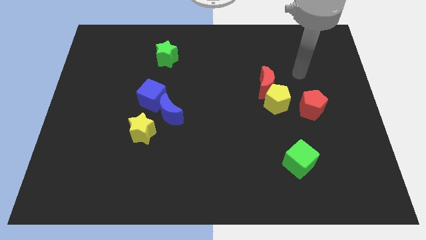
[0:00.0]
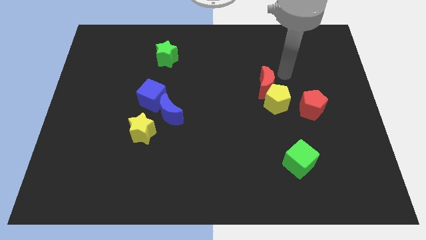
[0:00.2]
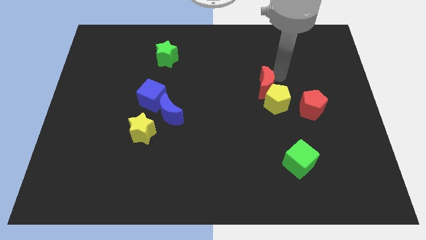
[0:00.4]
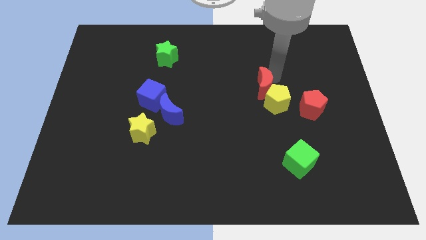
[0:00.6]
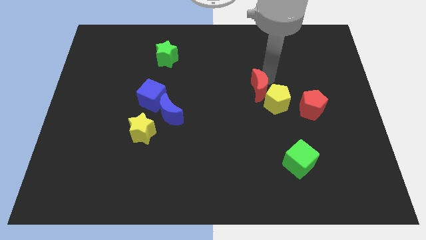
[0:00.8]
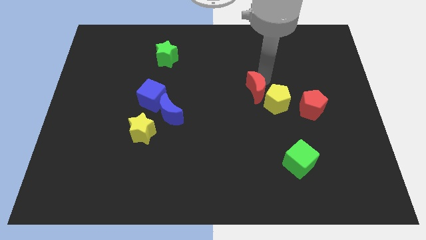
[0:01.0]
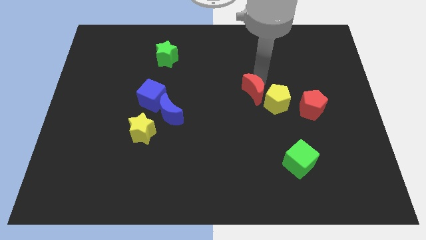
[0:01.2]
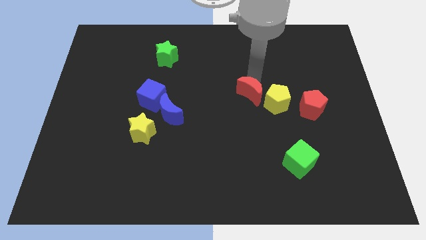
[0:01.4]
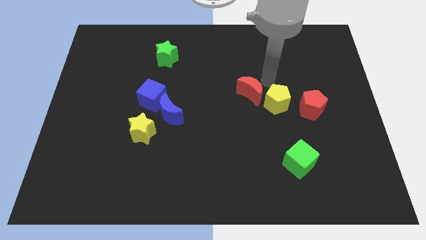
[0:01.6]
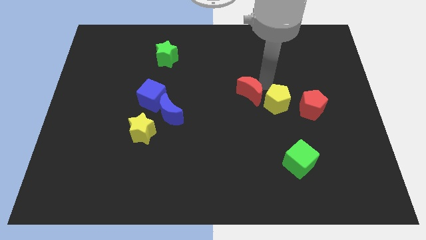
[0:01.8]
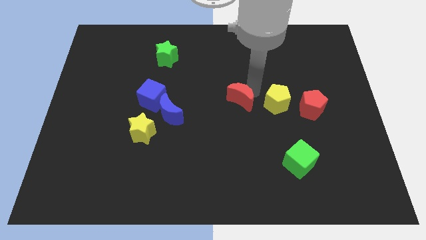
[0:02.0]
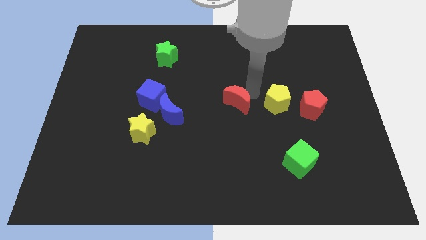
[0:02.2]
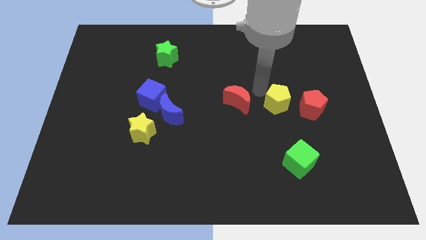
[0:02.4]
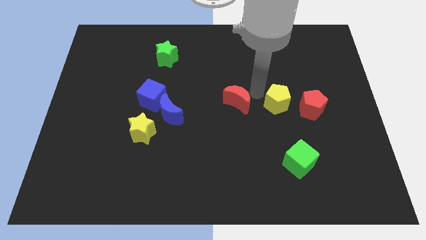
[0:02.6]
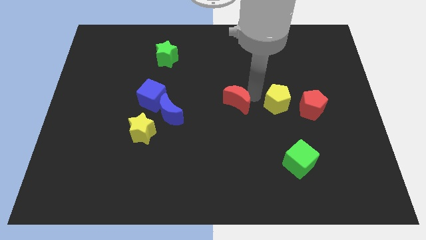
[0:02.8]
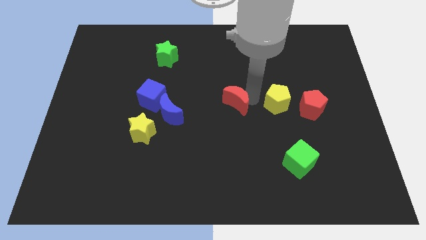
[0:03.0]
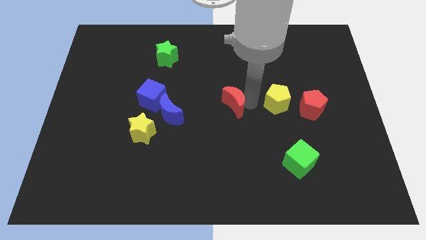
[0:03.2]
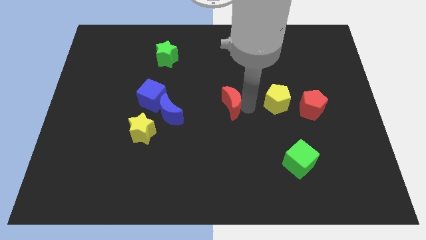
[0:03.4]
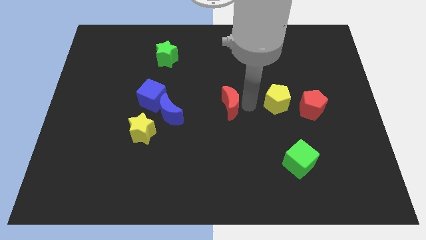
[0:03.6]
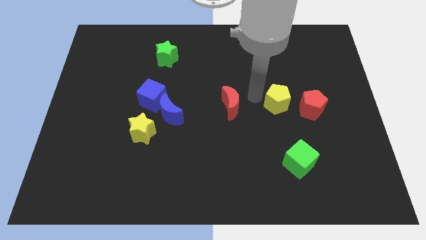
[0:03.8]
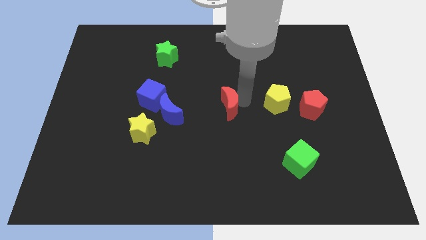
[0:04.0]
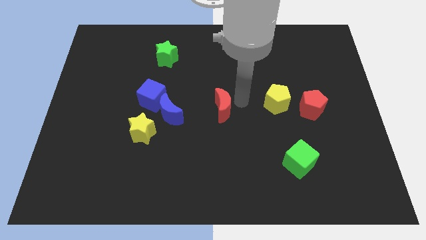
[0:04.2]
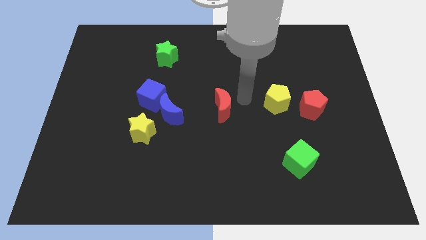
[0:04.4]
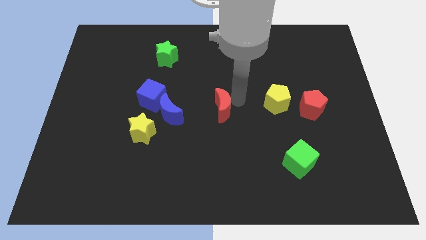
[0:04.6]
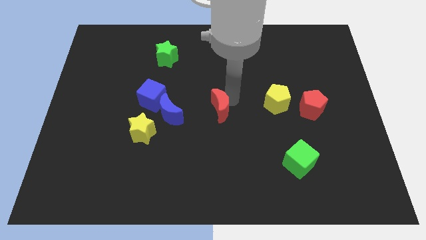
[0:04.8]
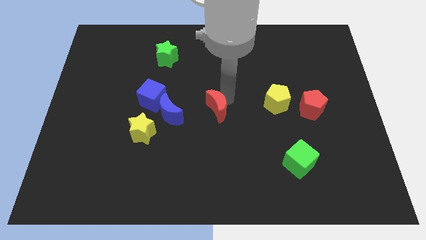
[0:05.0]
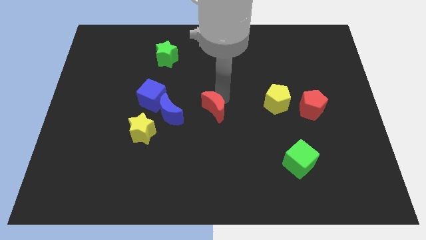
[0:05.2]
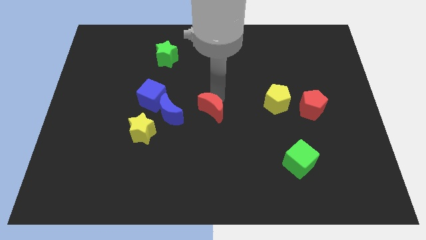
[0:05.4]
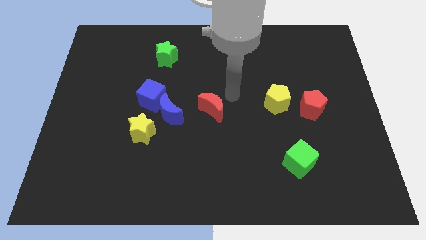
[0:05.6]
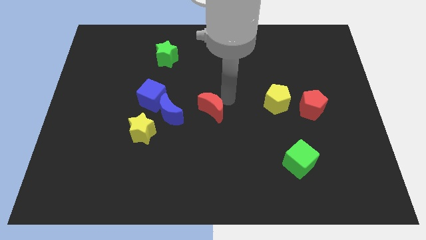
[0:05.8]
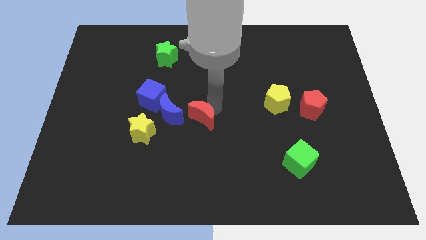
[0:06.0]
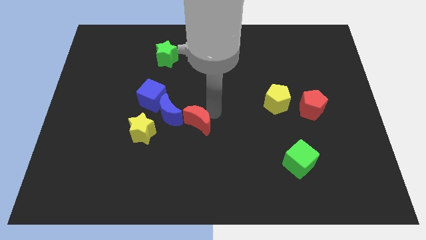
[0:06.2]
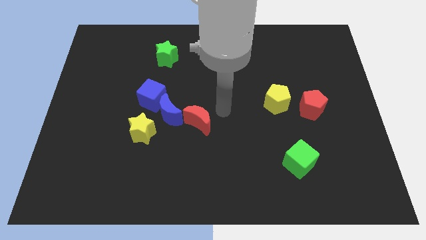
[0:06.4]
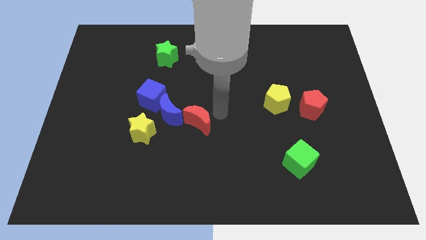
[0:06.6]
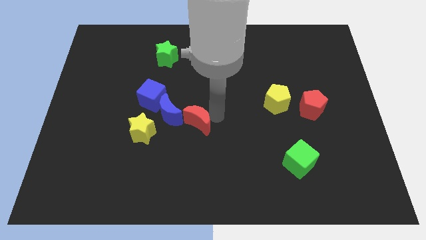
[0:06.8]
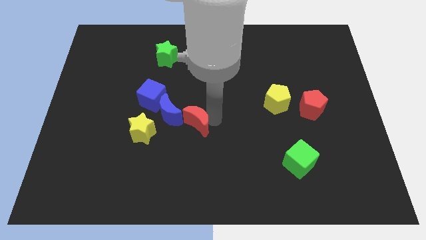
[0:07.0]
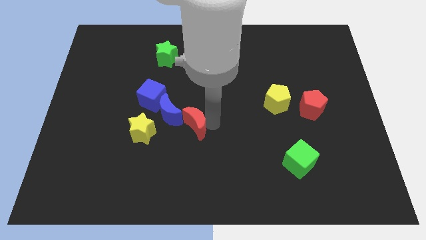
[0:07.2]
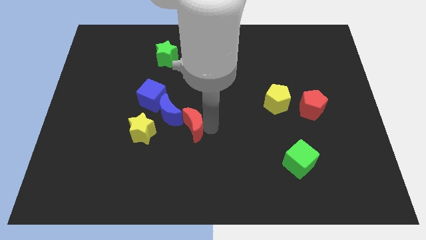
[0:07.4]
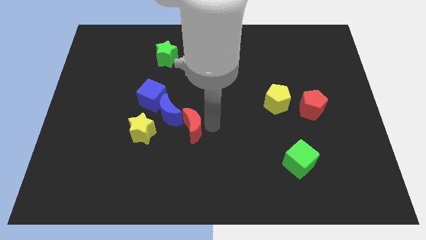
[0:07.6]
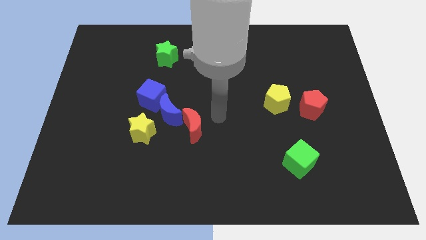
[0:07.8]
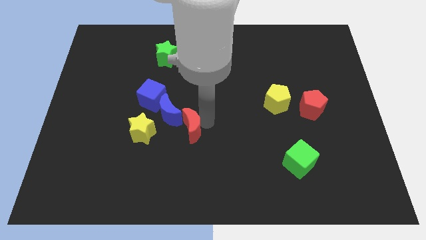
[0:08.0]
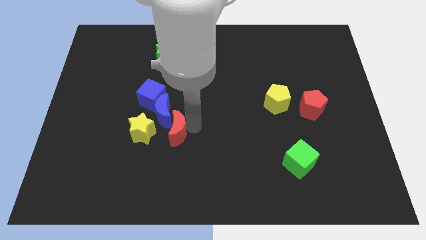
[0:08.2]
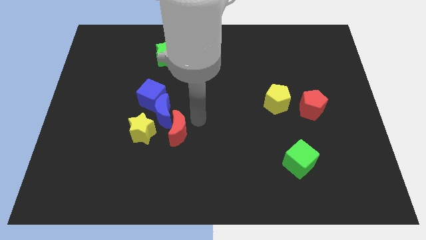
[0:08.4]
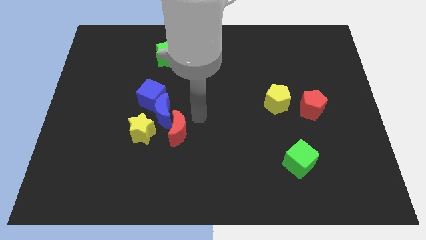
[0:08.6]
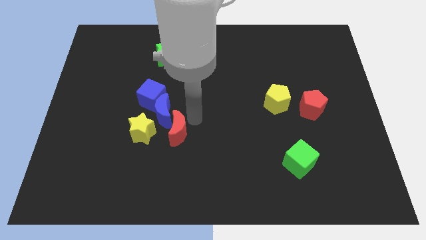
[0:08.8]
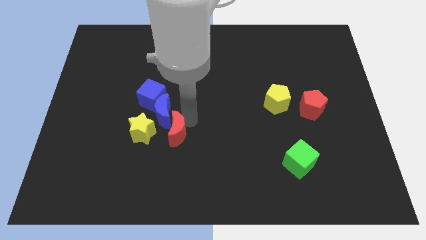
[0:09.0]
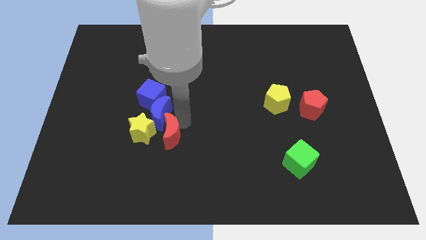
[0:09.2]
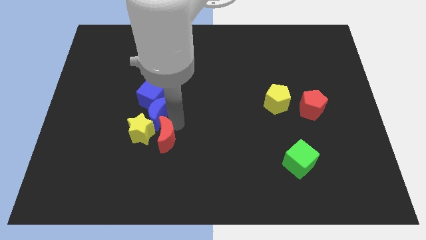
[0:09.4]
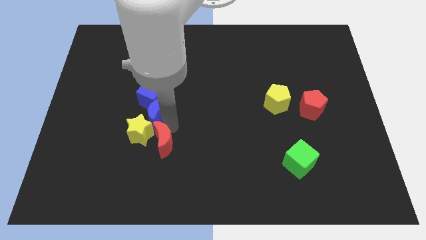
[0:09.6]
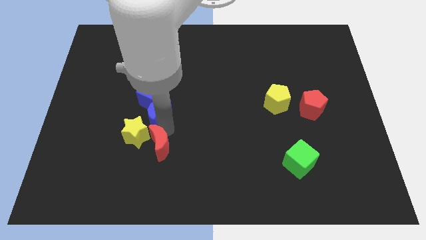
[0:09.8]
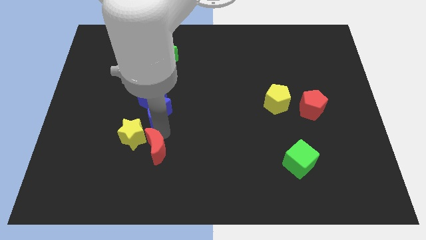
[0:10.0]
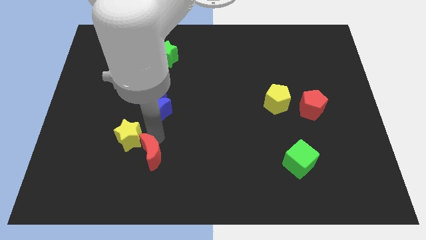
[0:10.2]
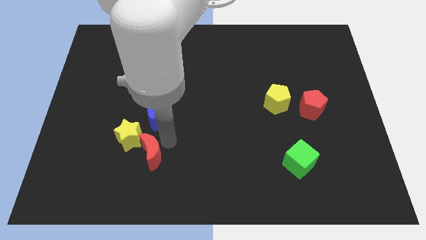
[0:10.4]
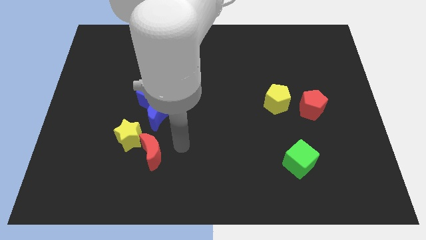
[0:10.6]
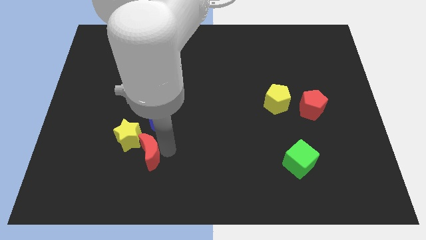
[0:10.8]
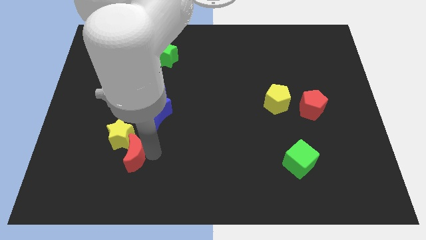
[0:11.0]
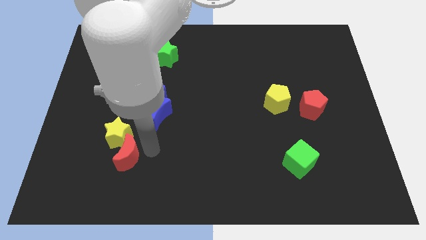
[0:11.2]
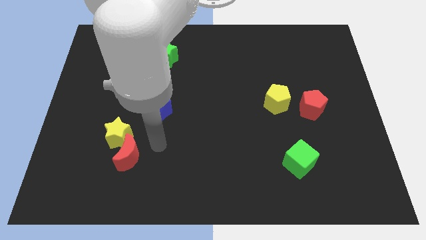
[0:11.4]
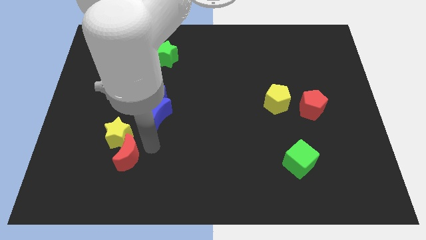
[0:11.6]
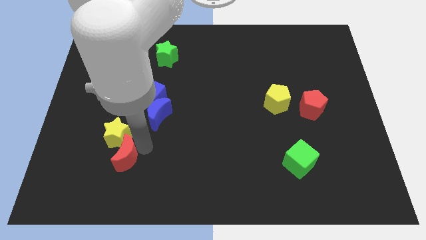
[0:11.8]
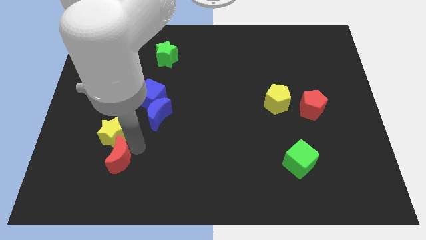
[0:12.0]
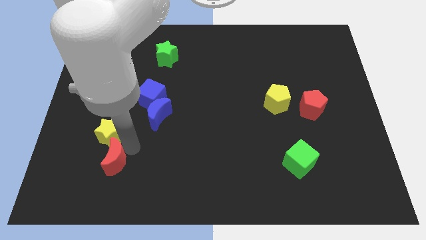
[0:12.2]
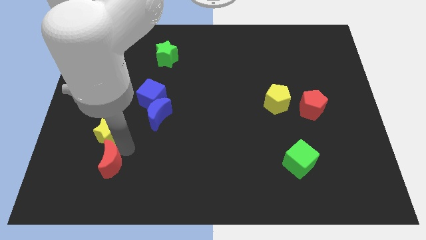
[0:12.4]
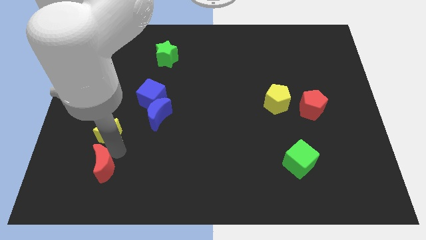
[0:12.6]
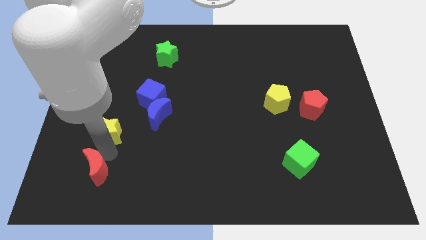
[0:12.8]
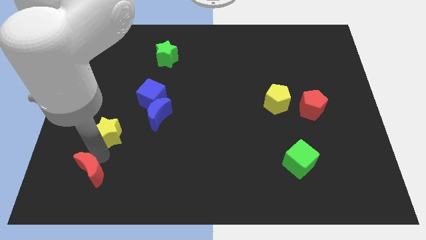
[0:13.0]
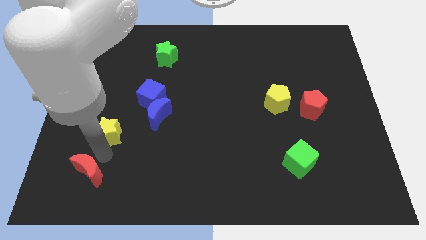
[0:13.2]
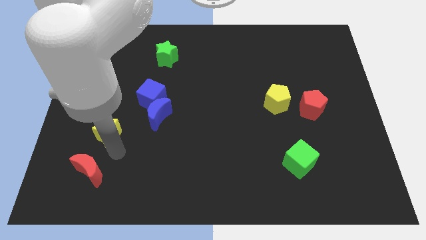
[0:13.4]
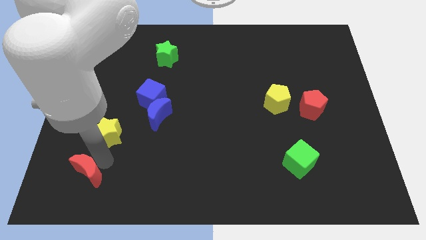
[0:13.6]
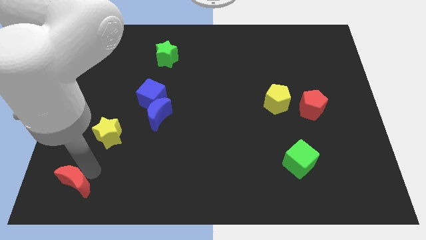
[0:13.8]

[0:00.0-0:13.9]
slide the red moon to the bottom left of the board

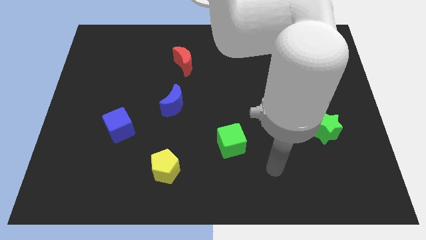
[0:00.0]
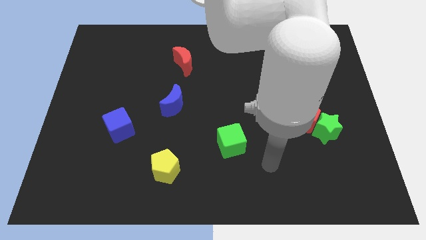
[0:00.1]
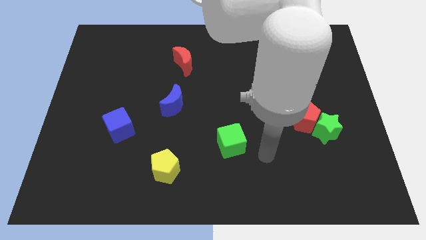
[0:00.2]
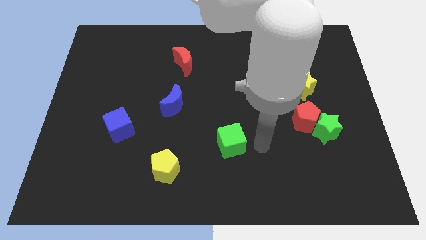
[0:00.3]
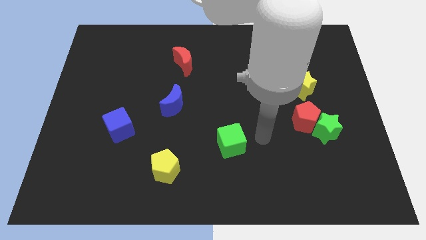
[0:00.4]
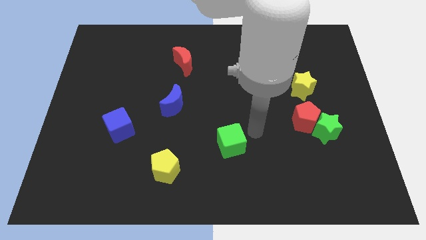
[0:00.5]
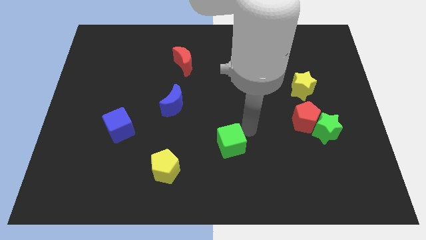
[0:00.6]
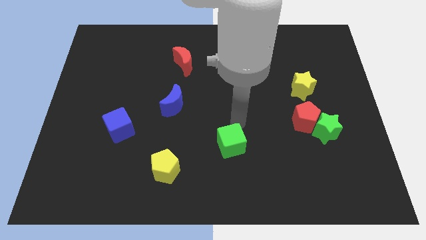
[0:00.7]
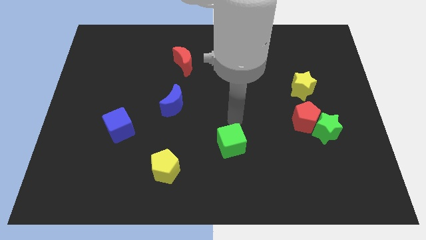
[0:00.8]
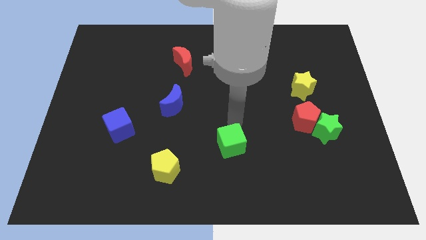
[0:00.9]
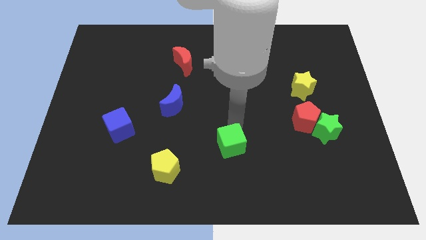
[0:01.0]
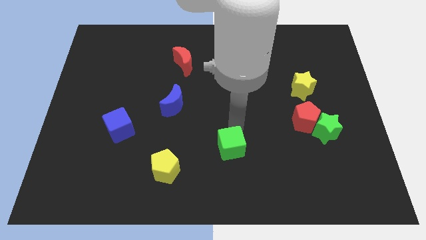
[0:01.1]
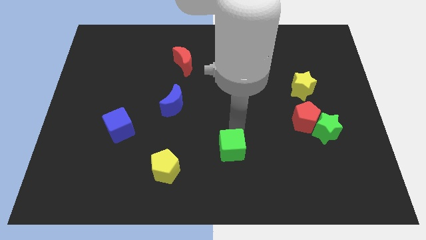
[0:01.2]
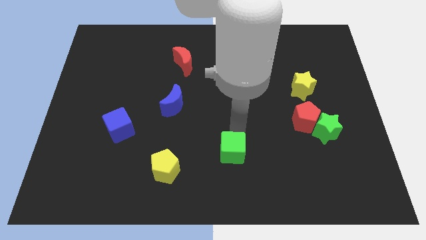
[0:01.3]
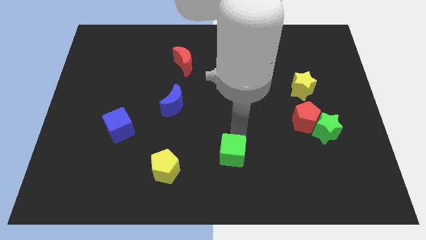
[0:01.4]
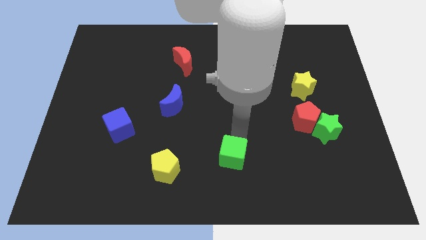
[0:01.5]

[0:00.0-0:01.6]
push the green cube to the bottom side
